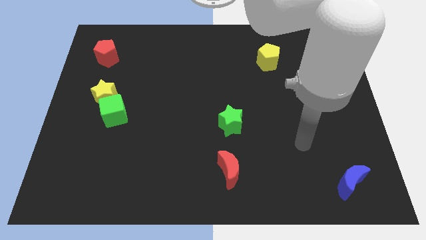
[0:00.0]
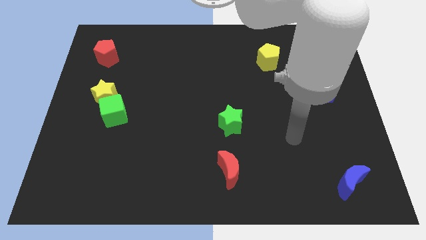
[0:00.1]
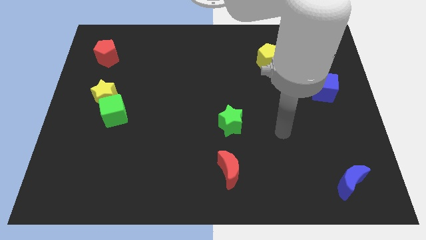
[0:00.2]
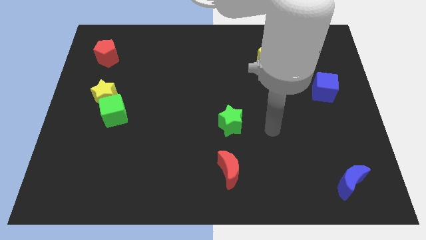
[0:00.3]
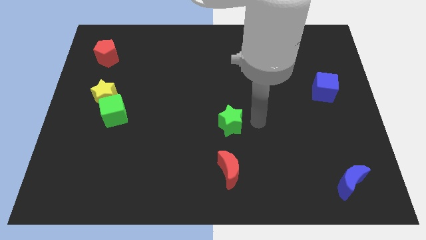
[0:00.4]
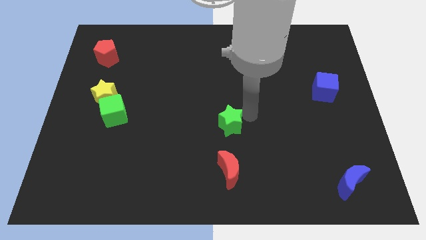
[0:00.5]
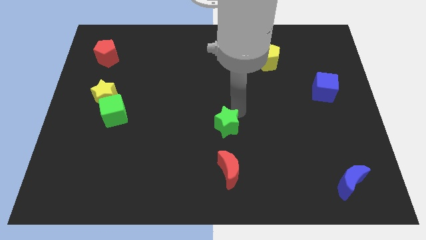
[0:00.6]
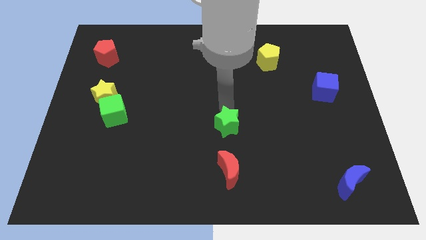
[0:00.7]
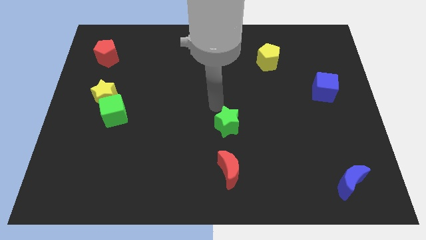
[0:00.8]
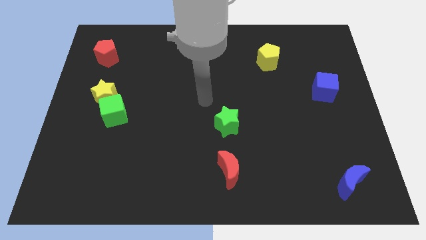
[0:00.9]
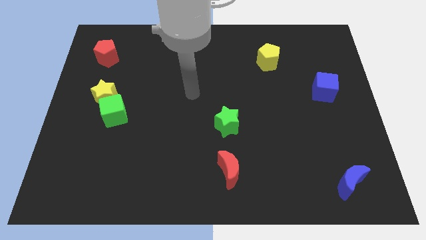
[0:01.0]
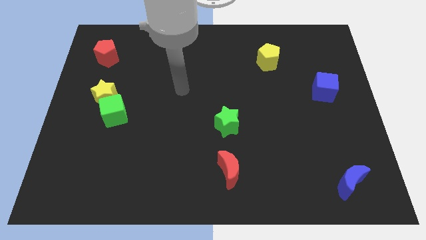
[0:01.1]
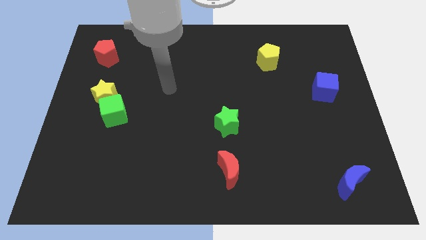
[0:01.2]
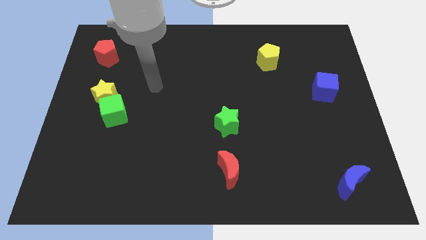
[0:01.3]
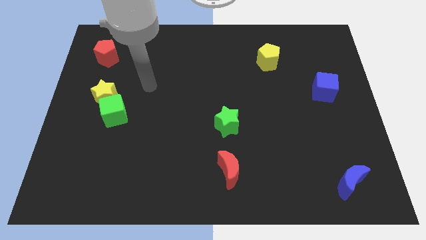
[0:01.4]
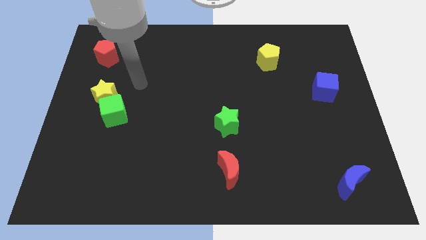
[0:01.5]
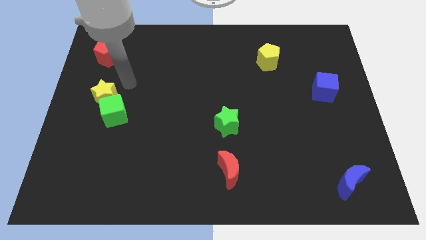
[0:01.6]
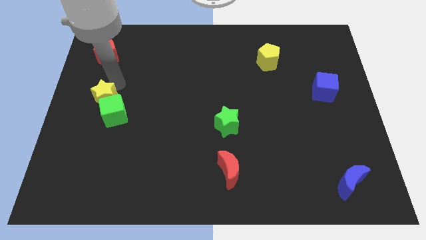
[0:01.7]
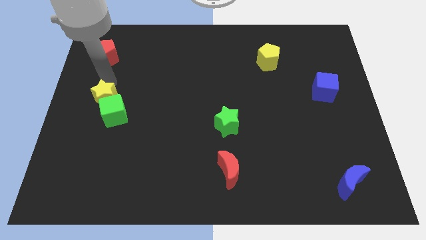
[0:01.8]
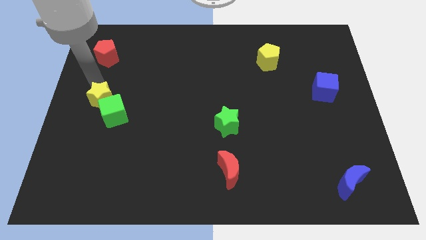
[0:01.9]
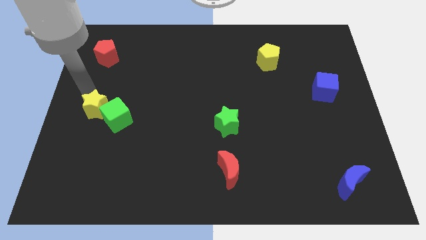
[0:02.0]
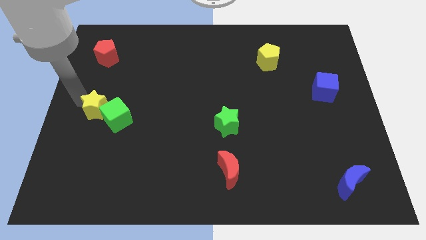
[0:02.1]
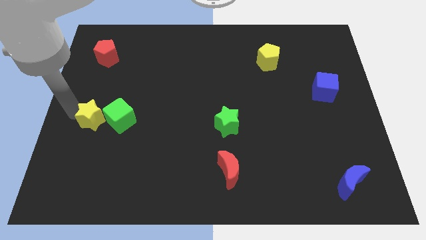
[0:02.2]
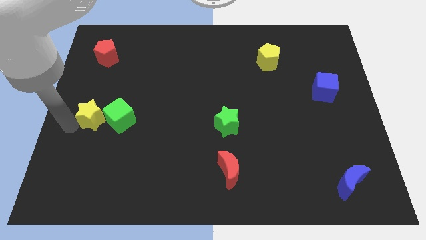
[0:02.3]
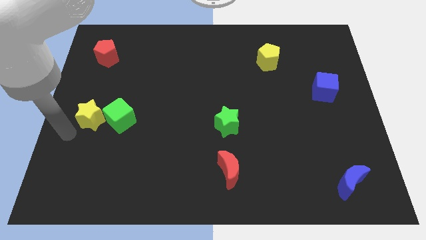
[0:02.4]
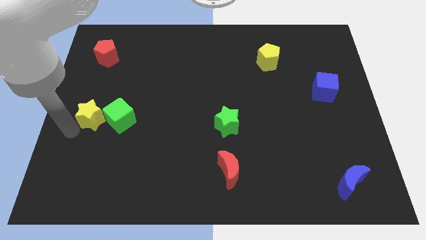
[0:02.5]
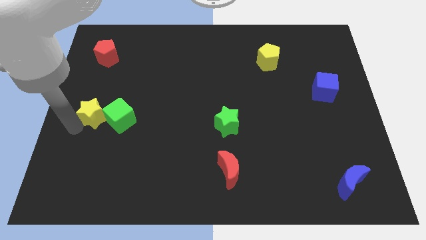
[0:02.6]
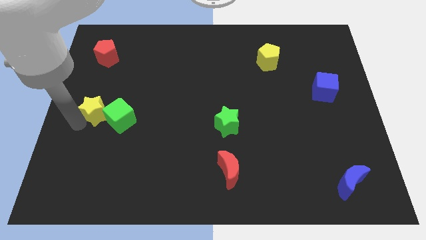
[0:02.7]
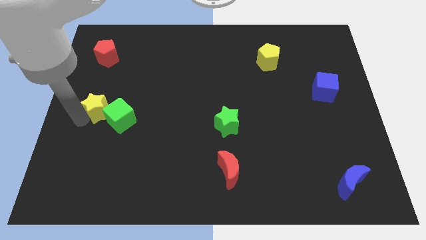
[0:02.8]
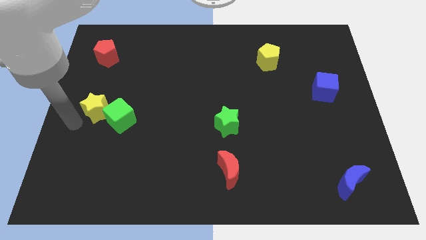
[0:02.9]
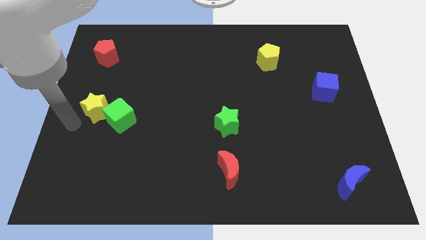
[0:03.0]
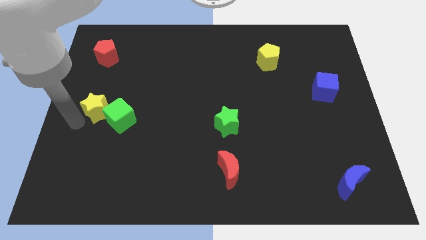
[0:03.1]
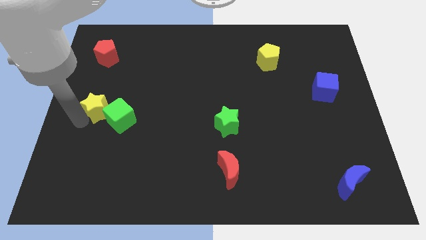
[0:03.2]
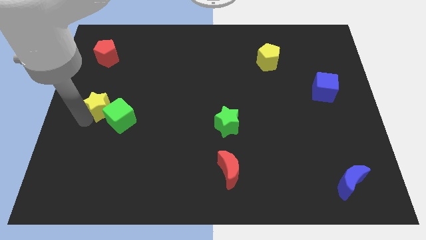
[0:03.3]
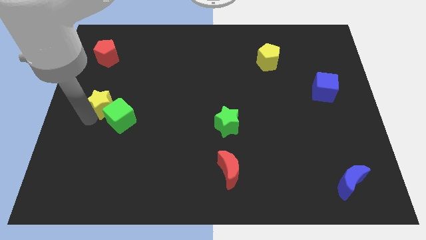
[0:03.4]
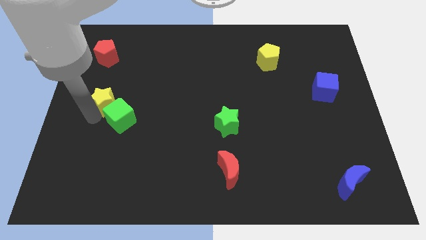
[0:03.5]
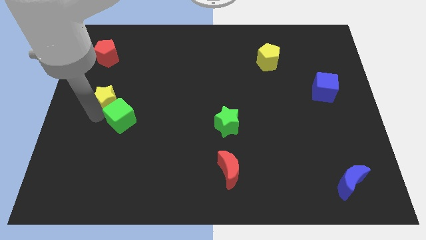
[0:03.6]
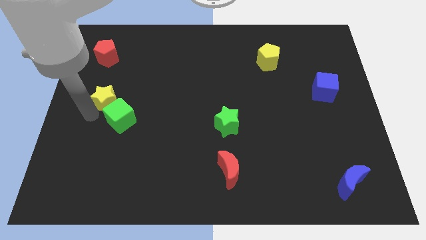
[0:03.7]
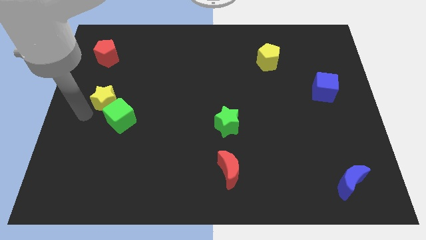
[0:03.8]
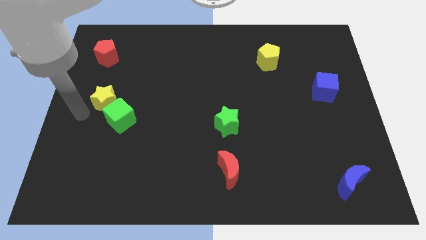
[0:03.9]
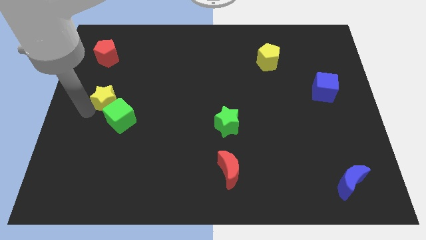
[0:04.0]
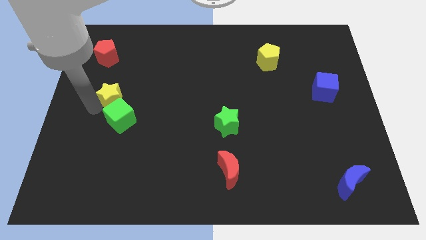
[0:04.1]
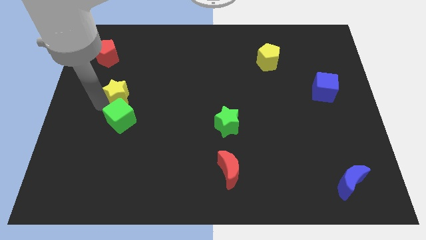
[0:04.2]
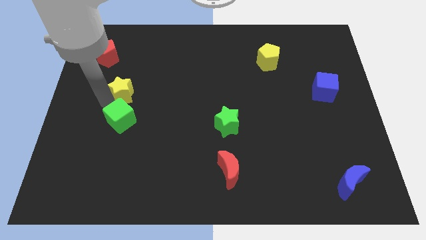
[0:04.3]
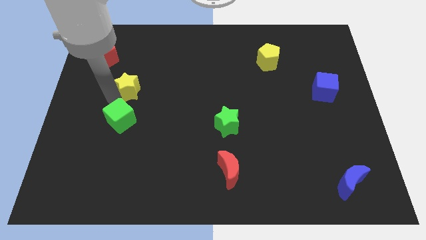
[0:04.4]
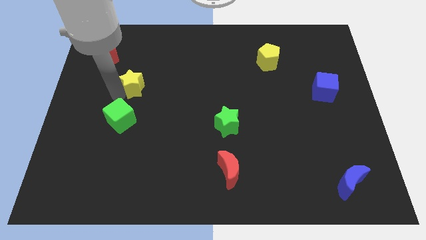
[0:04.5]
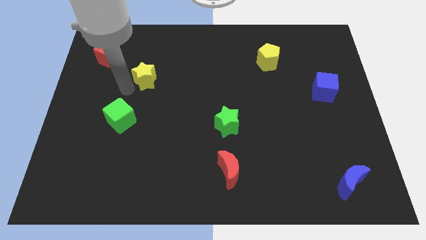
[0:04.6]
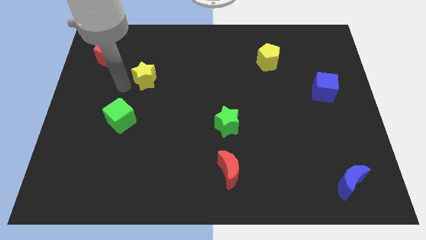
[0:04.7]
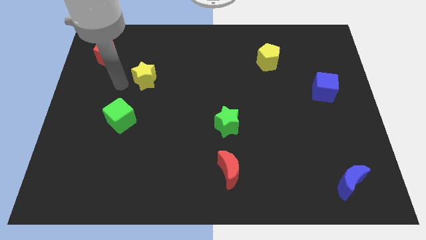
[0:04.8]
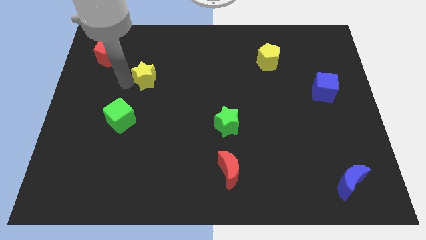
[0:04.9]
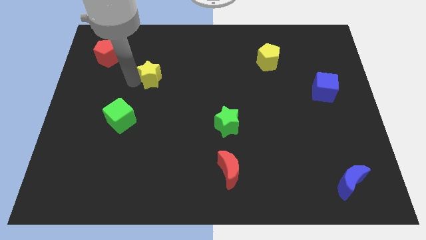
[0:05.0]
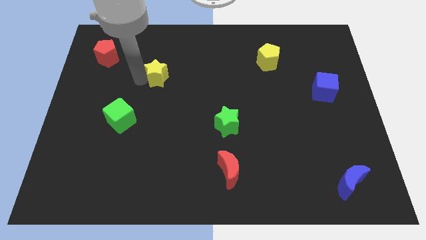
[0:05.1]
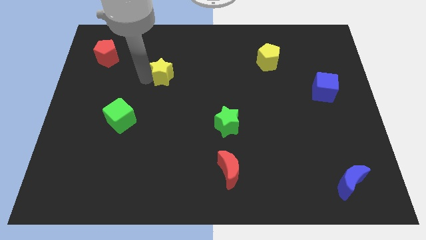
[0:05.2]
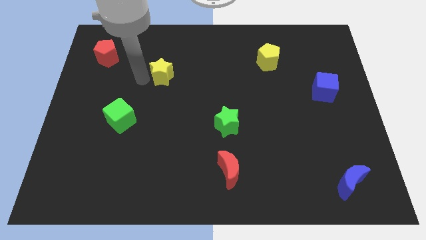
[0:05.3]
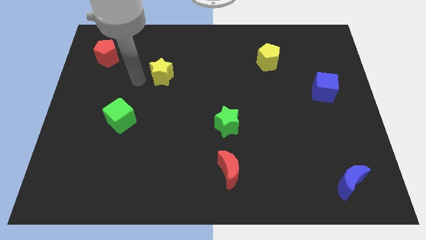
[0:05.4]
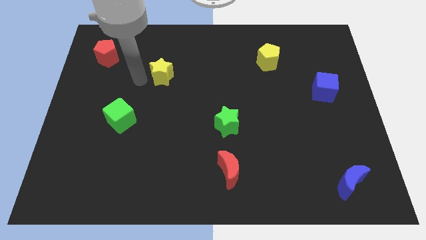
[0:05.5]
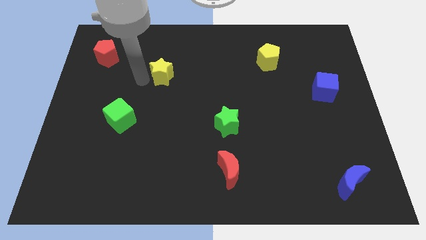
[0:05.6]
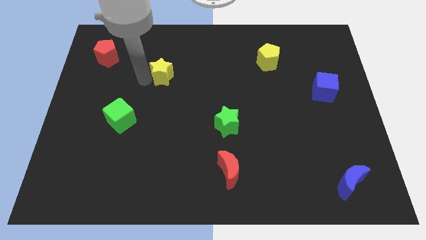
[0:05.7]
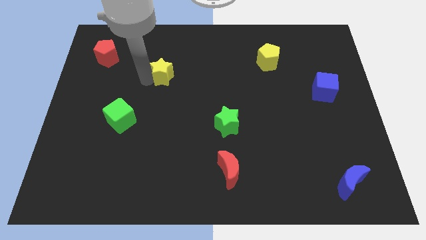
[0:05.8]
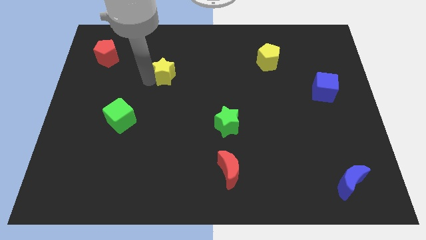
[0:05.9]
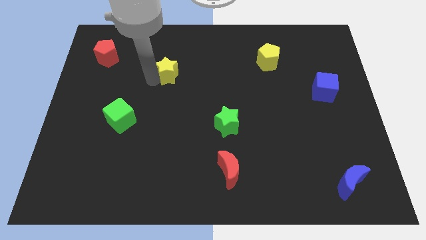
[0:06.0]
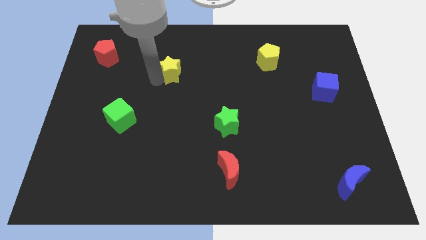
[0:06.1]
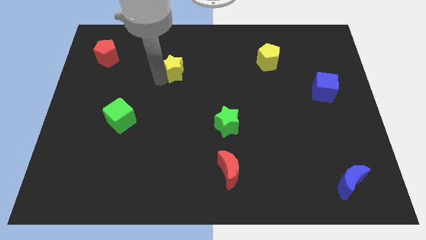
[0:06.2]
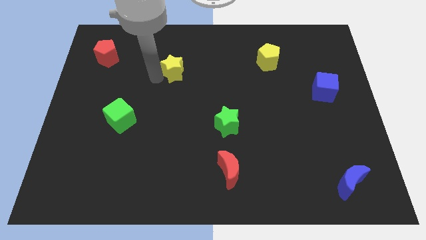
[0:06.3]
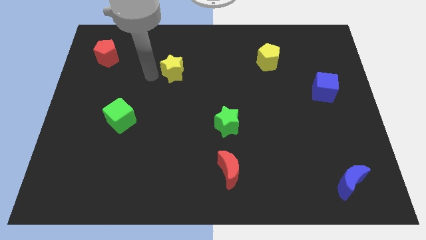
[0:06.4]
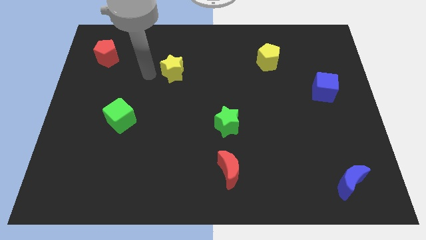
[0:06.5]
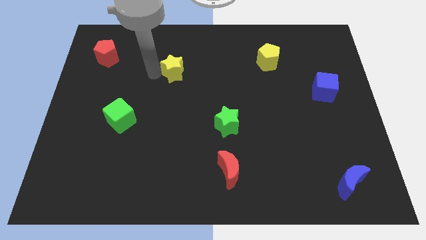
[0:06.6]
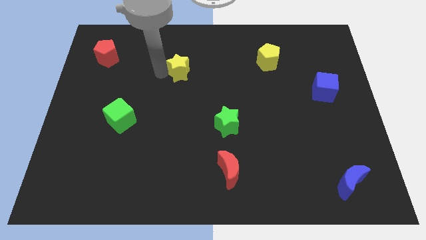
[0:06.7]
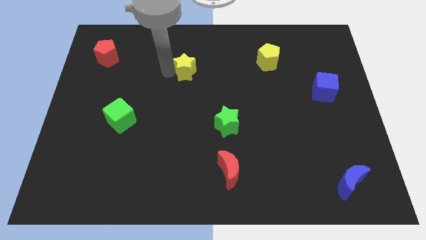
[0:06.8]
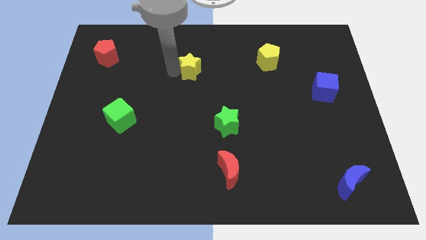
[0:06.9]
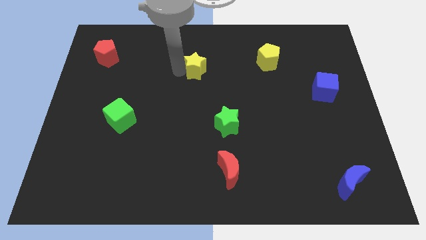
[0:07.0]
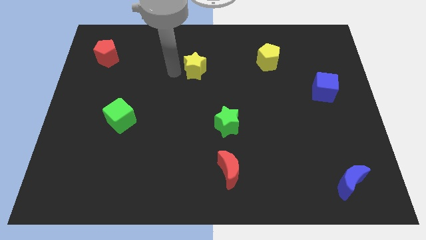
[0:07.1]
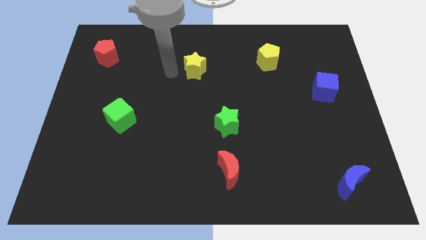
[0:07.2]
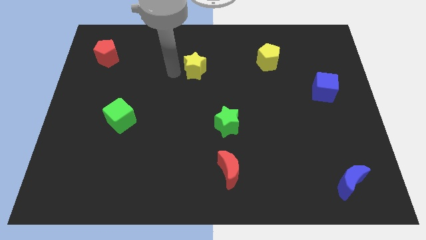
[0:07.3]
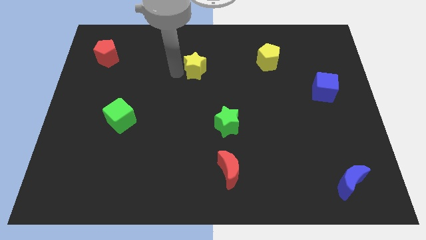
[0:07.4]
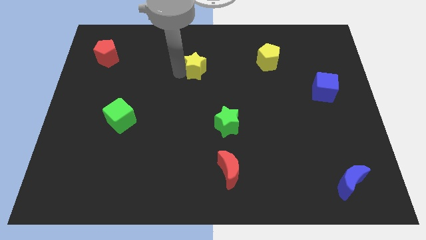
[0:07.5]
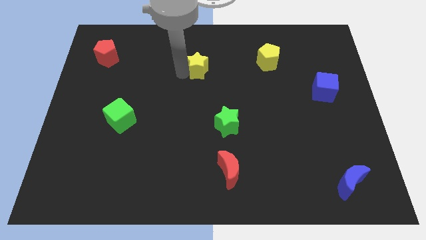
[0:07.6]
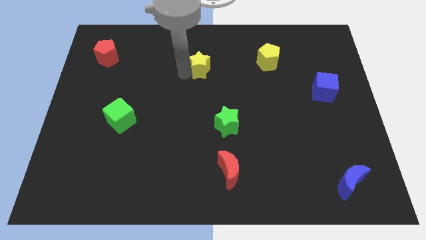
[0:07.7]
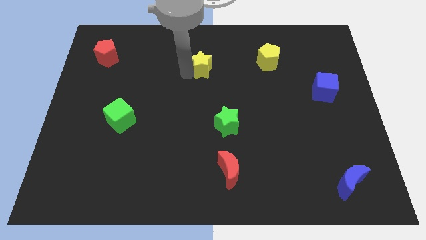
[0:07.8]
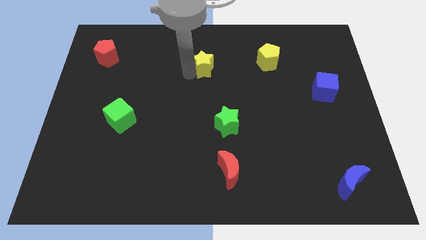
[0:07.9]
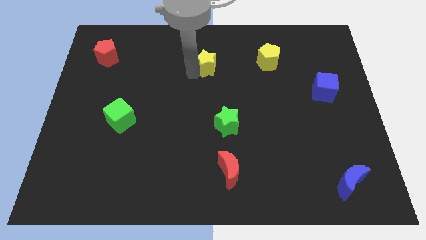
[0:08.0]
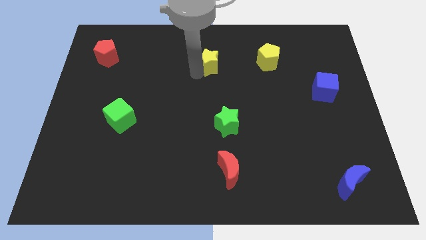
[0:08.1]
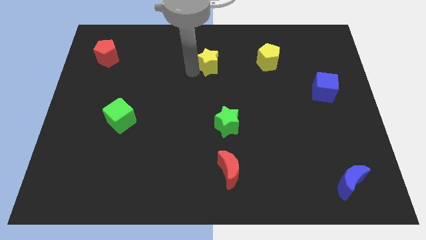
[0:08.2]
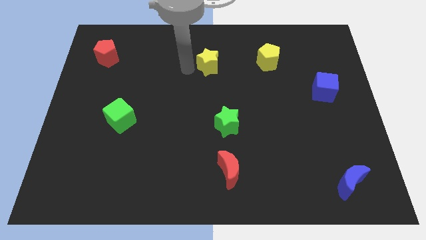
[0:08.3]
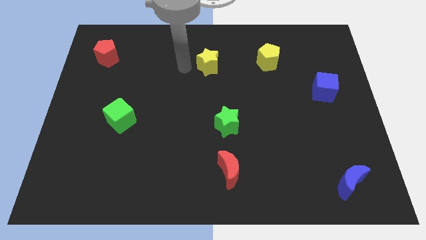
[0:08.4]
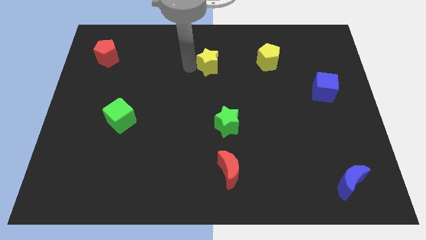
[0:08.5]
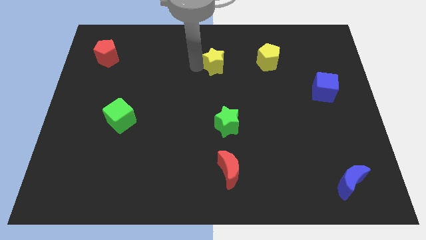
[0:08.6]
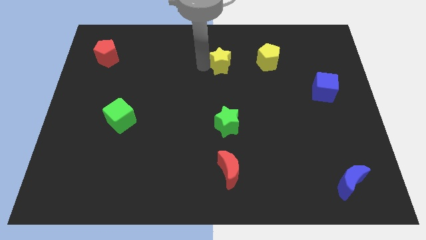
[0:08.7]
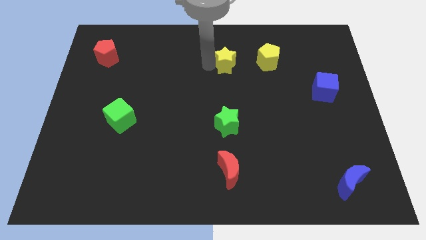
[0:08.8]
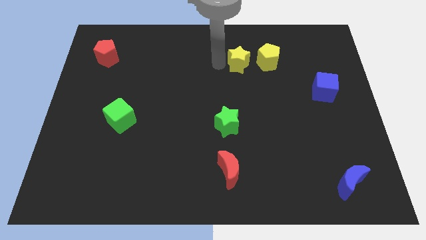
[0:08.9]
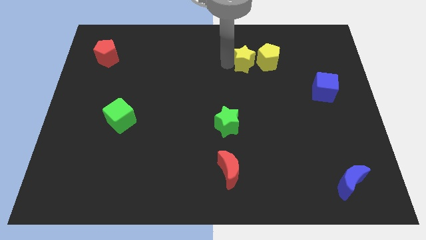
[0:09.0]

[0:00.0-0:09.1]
move the yellow star towards the yellow pentagon
